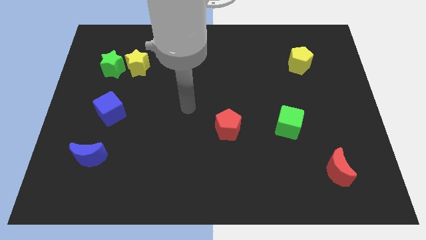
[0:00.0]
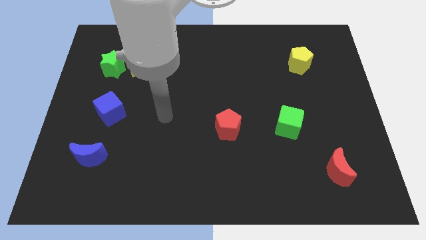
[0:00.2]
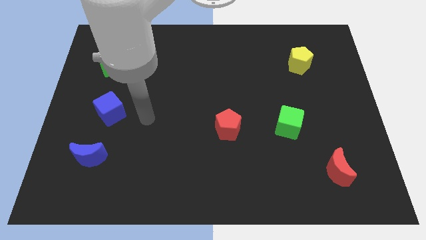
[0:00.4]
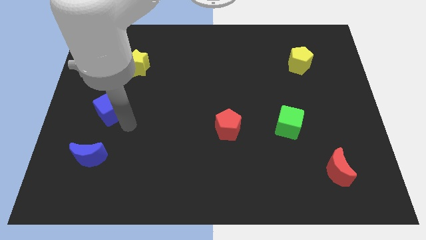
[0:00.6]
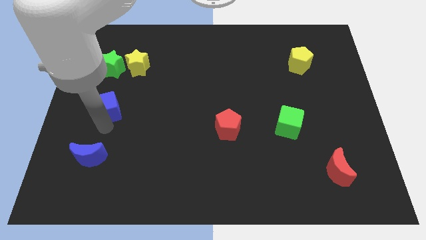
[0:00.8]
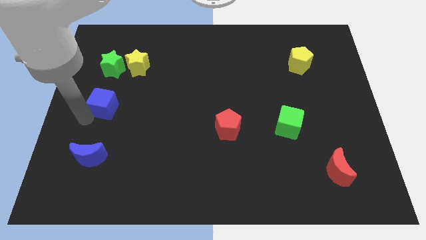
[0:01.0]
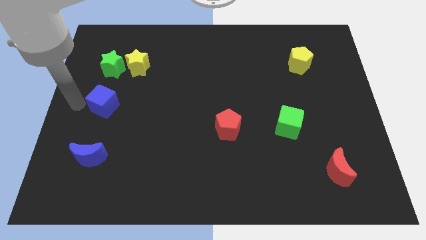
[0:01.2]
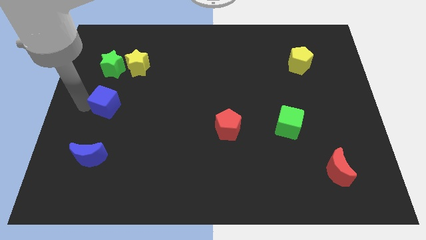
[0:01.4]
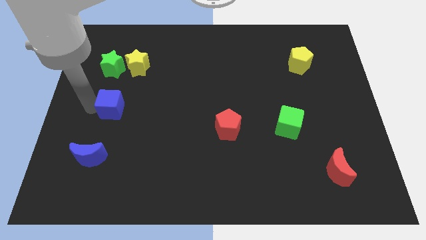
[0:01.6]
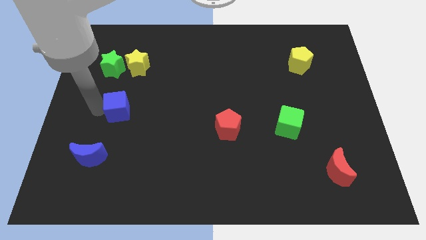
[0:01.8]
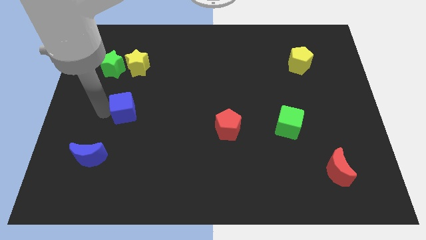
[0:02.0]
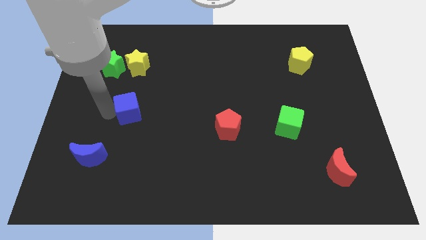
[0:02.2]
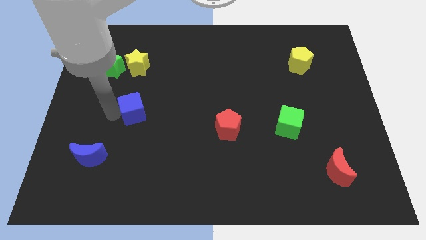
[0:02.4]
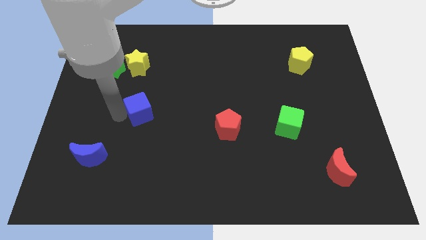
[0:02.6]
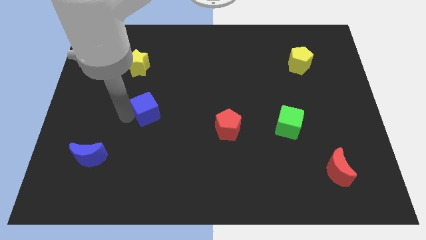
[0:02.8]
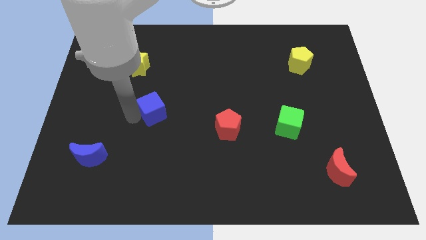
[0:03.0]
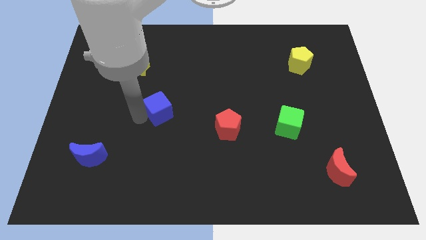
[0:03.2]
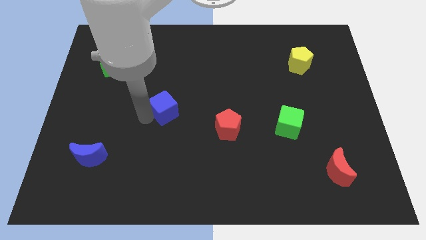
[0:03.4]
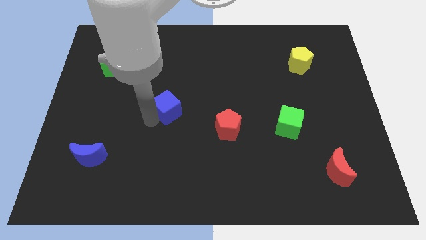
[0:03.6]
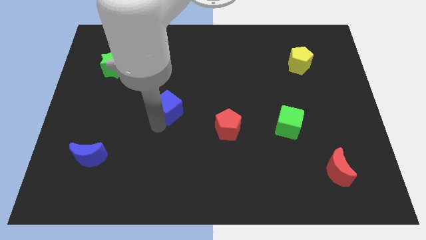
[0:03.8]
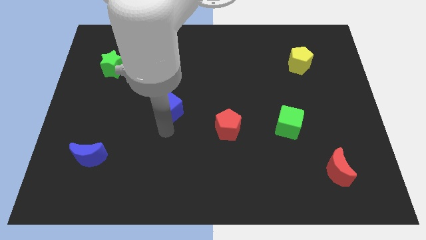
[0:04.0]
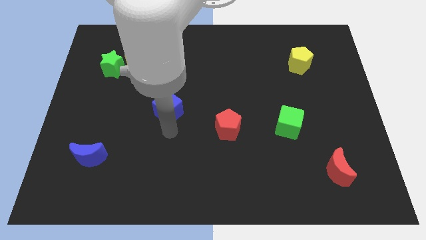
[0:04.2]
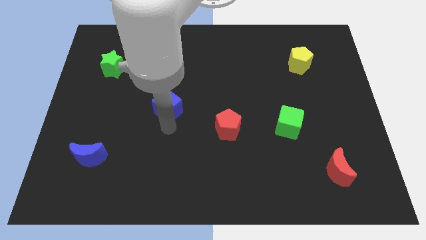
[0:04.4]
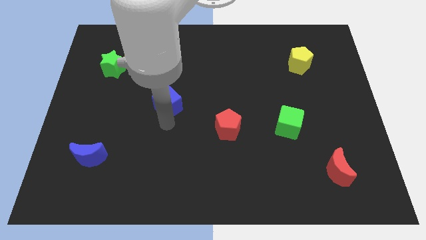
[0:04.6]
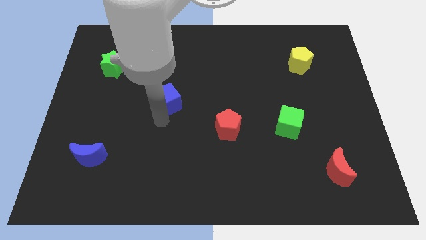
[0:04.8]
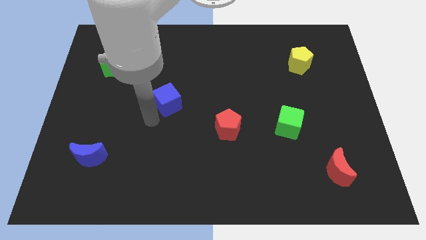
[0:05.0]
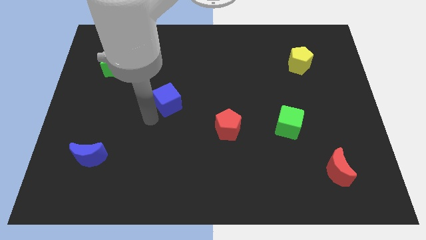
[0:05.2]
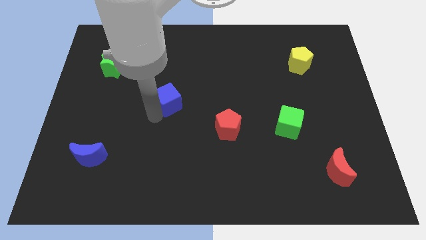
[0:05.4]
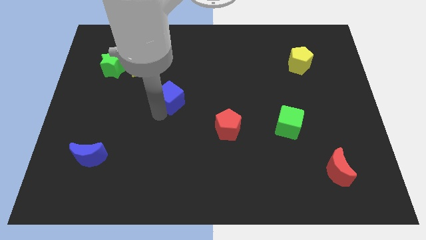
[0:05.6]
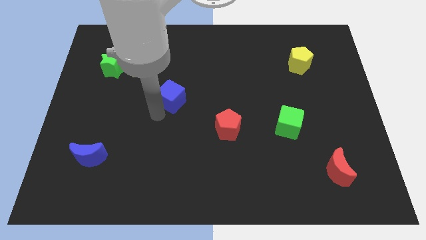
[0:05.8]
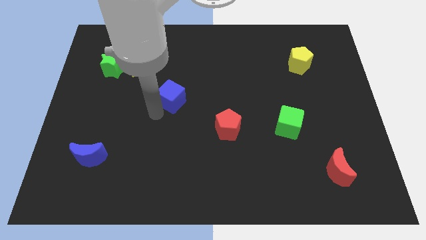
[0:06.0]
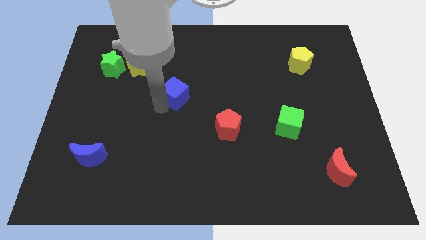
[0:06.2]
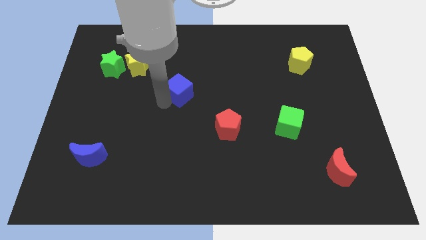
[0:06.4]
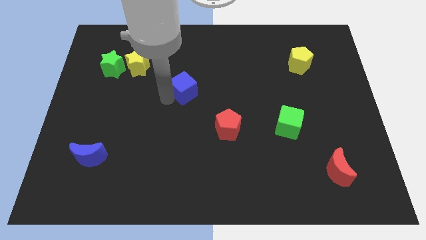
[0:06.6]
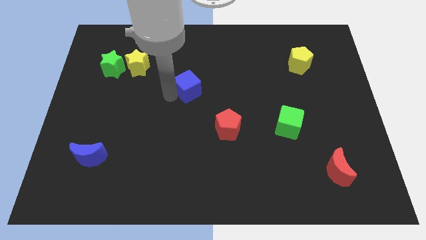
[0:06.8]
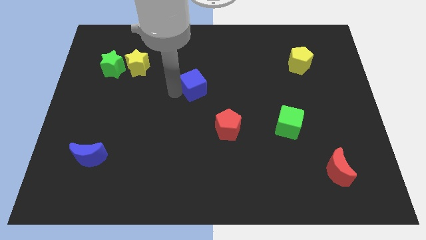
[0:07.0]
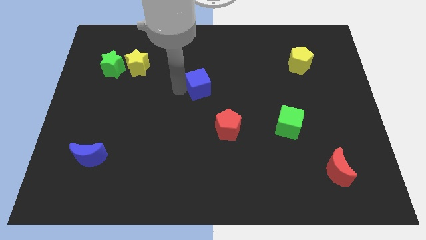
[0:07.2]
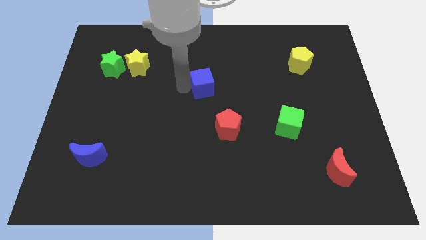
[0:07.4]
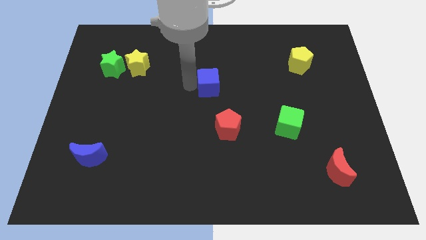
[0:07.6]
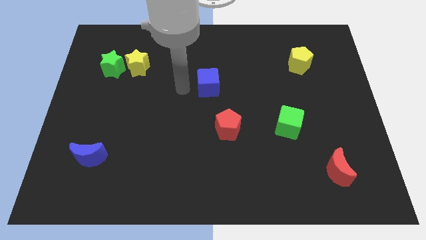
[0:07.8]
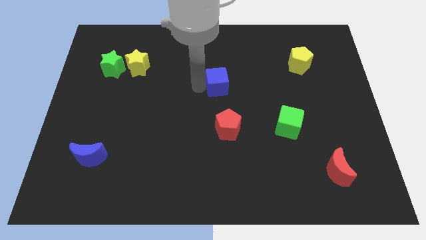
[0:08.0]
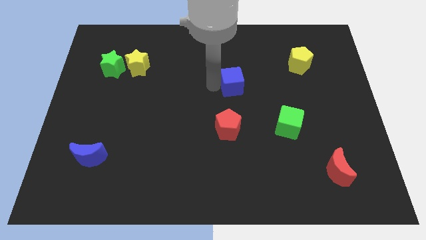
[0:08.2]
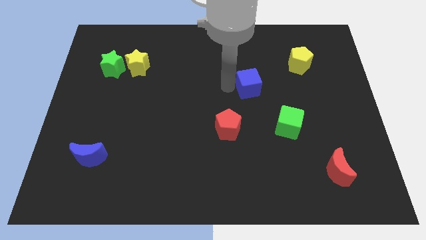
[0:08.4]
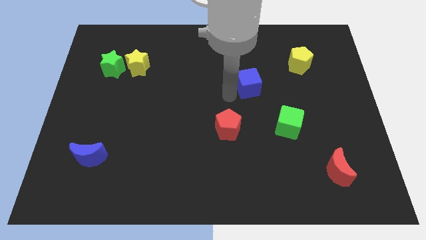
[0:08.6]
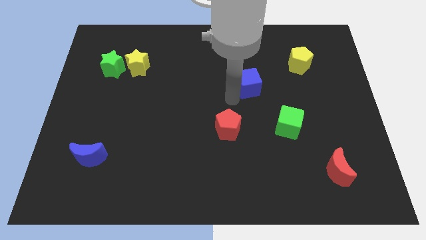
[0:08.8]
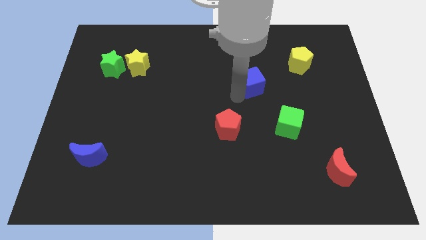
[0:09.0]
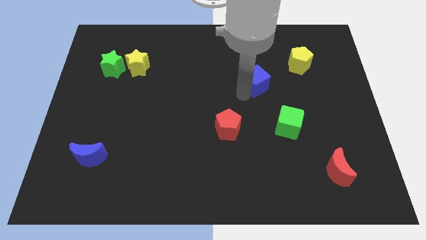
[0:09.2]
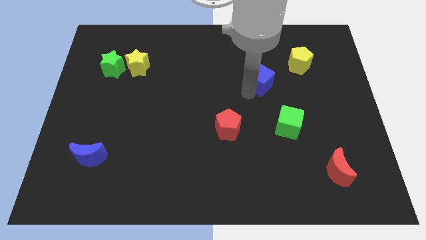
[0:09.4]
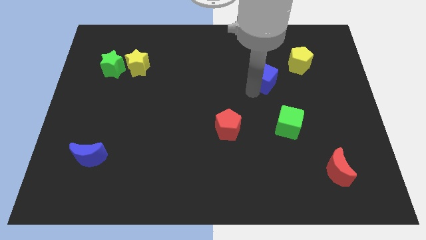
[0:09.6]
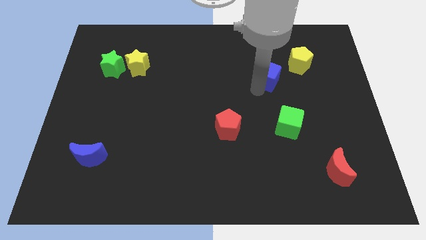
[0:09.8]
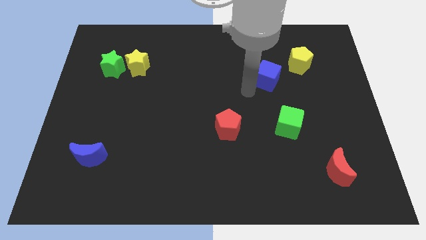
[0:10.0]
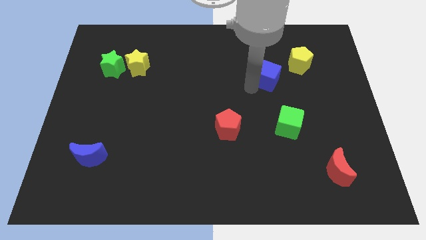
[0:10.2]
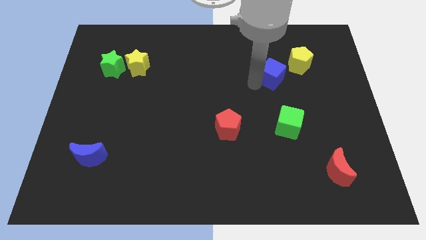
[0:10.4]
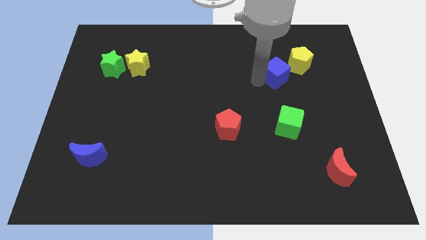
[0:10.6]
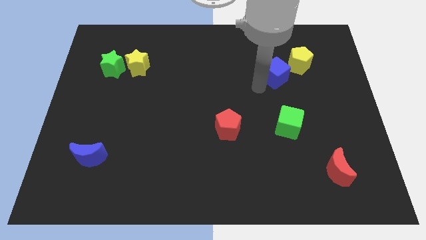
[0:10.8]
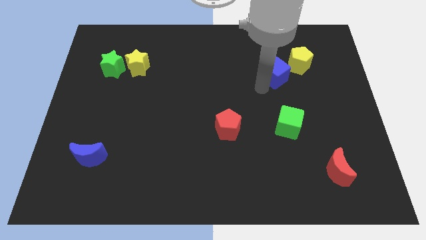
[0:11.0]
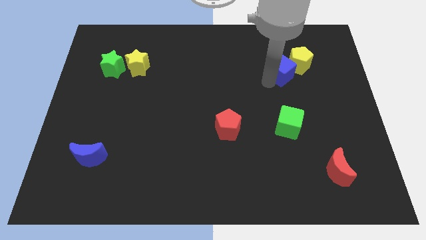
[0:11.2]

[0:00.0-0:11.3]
move the blue cube close to the yellow pentagon

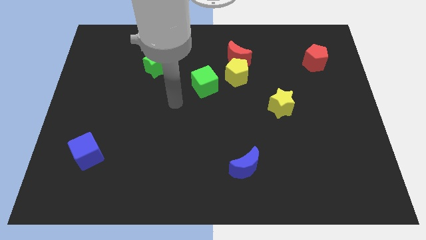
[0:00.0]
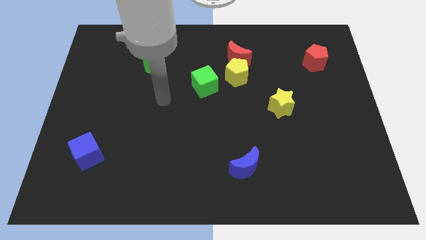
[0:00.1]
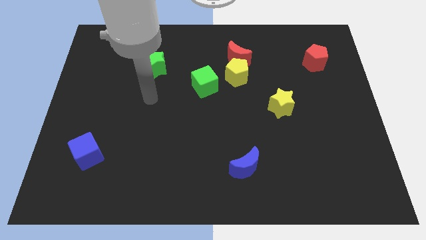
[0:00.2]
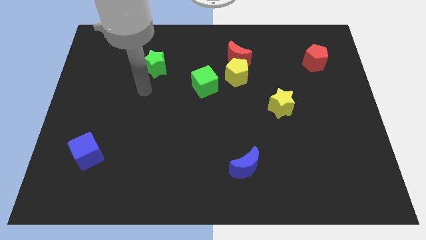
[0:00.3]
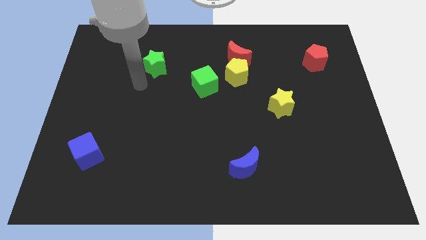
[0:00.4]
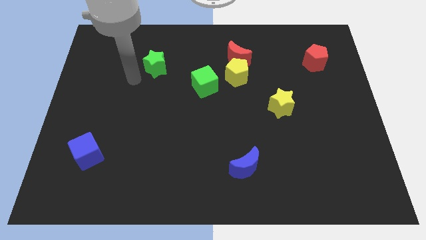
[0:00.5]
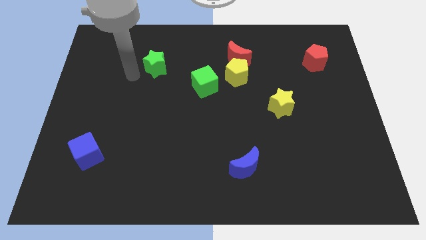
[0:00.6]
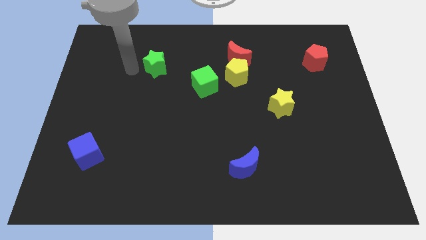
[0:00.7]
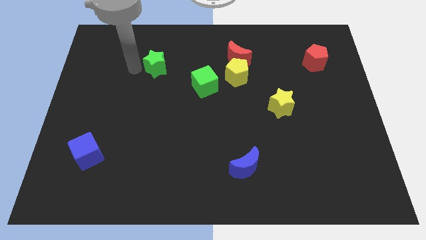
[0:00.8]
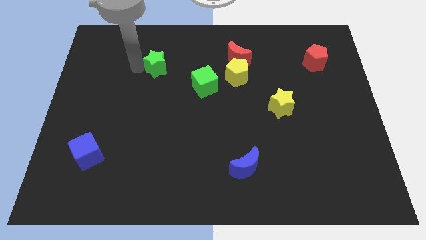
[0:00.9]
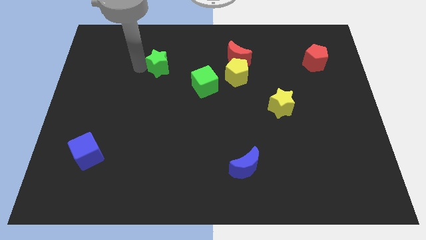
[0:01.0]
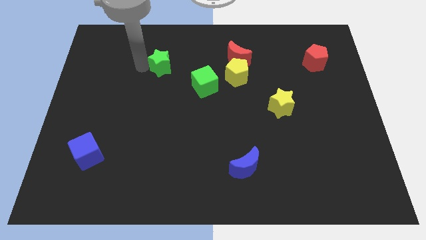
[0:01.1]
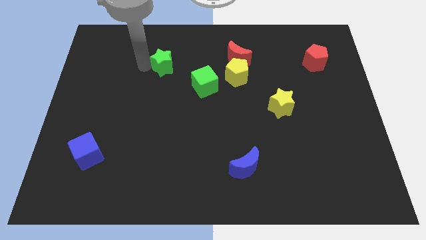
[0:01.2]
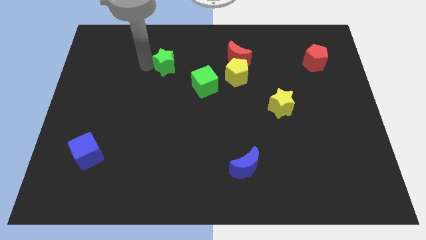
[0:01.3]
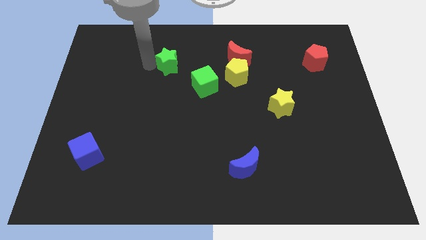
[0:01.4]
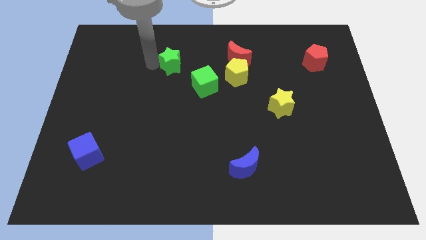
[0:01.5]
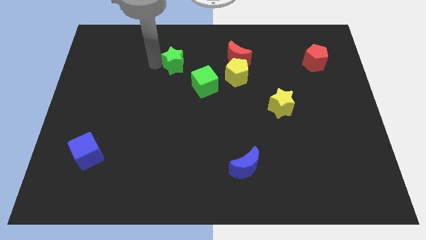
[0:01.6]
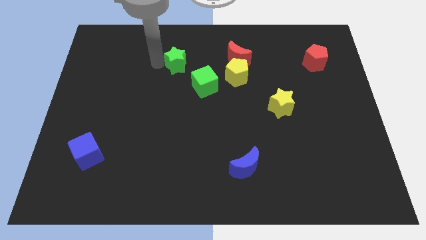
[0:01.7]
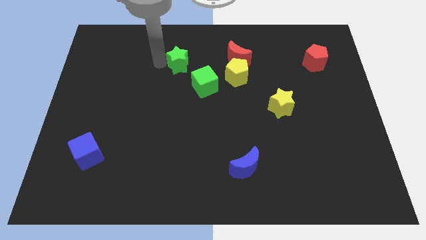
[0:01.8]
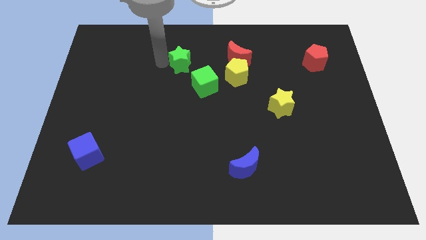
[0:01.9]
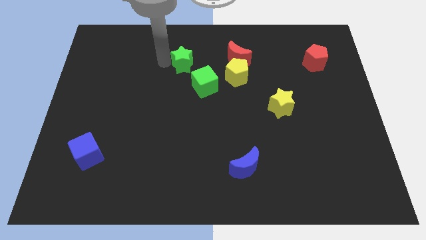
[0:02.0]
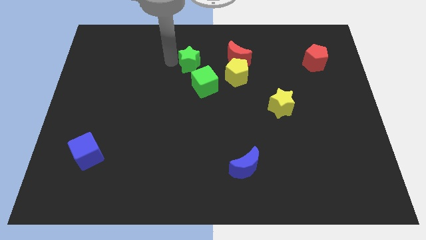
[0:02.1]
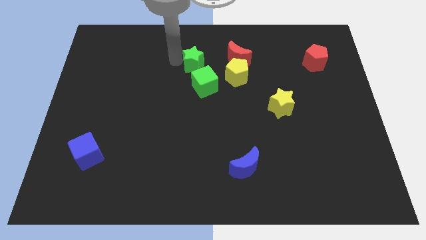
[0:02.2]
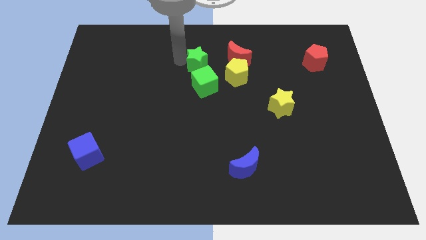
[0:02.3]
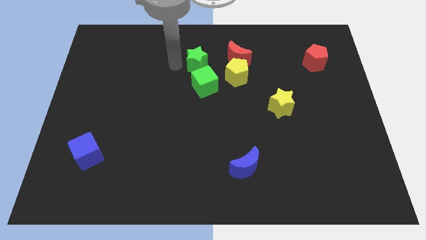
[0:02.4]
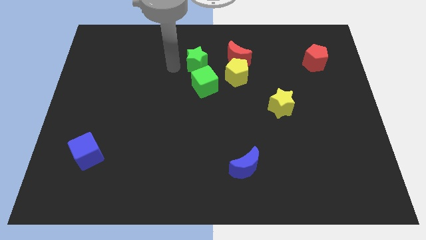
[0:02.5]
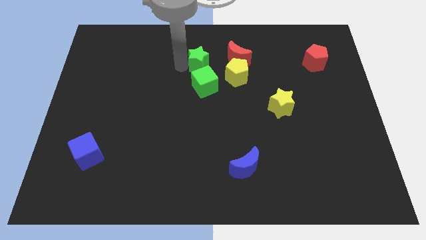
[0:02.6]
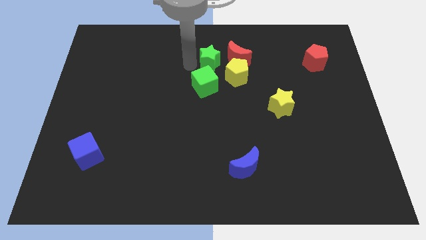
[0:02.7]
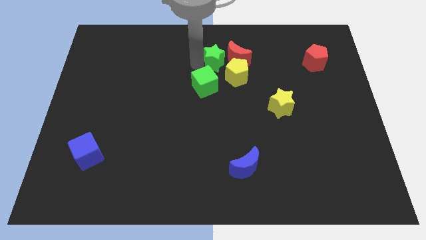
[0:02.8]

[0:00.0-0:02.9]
put the green star to the red moon
